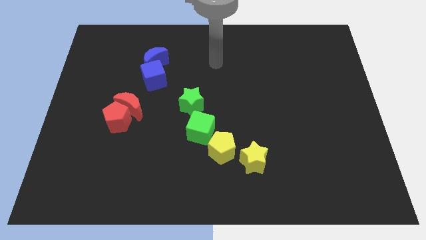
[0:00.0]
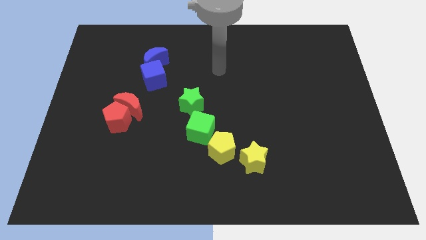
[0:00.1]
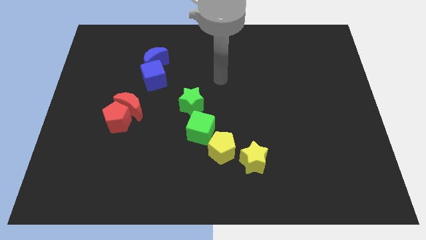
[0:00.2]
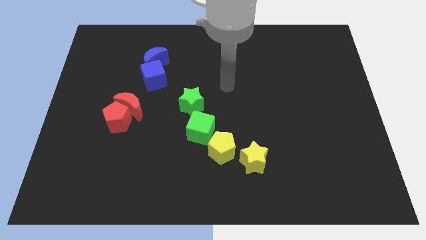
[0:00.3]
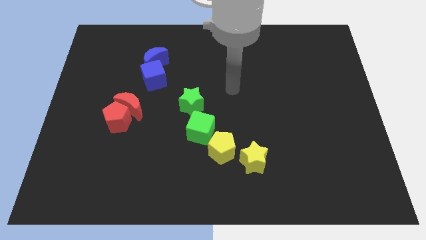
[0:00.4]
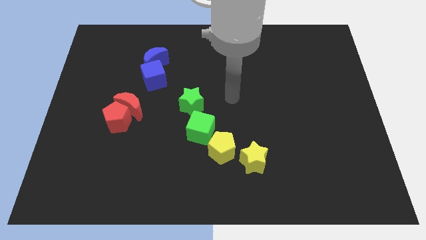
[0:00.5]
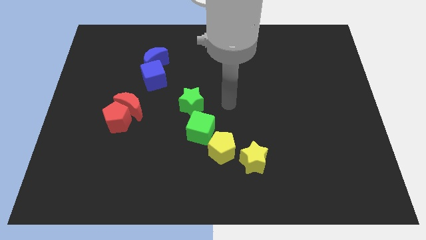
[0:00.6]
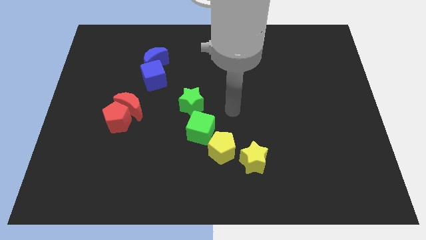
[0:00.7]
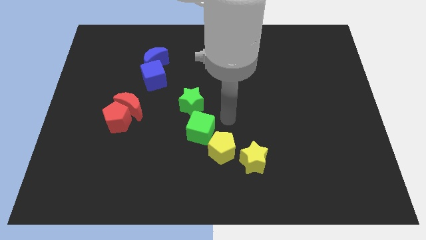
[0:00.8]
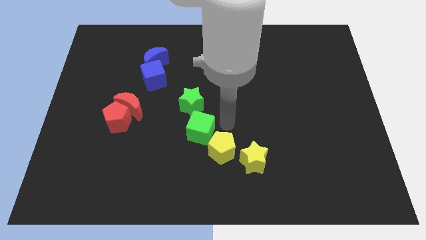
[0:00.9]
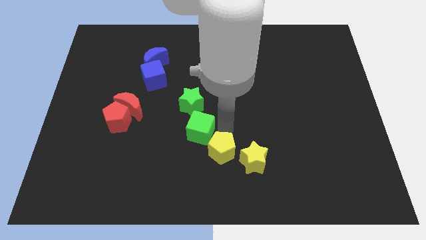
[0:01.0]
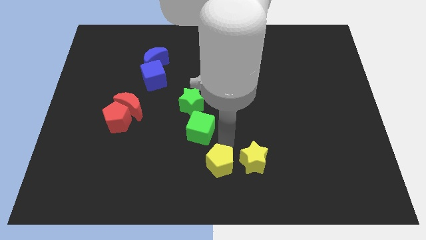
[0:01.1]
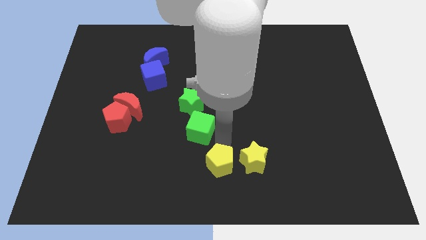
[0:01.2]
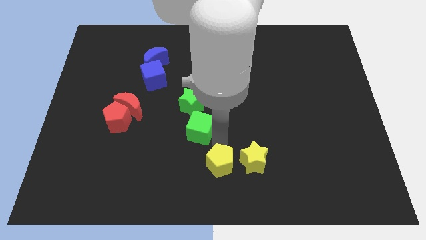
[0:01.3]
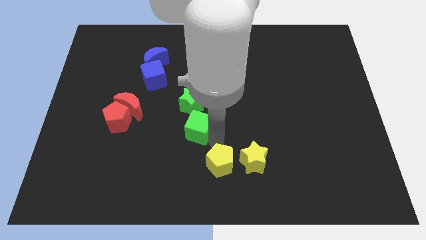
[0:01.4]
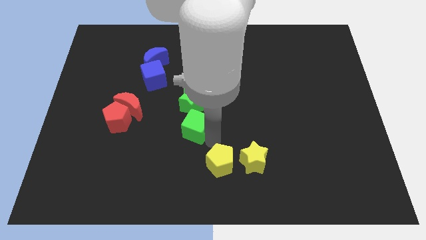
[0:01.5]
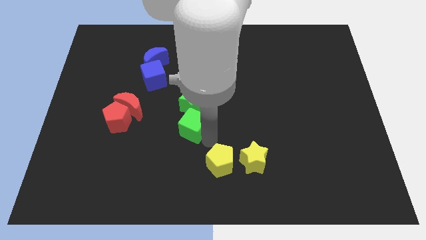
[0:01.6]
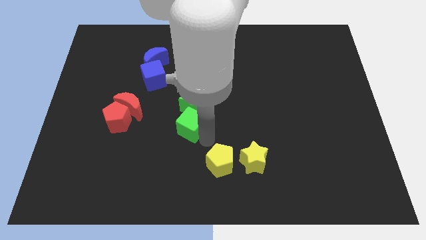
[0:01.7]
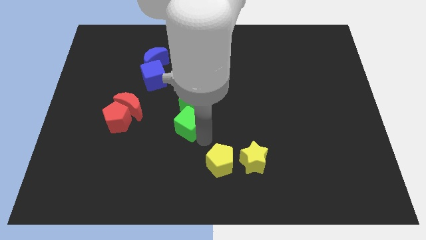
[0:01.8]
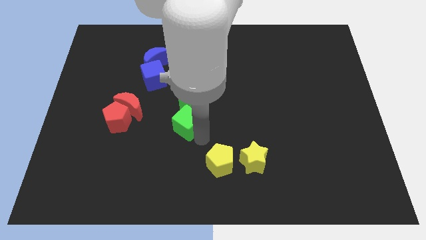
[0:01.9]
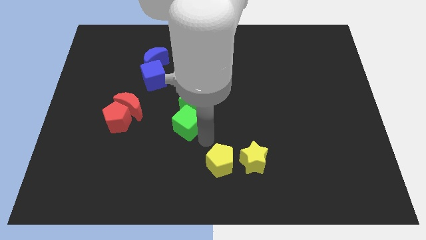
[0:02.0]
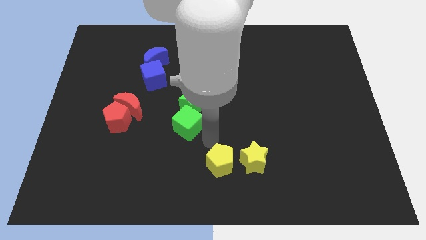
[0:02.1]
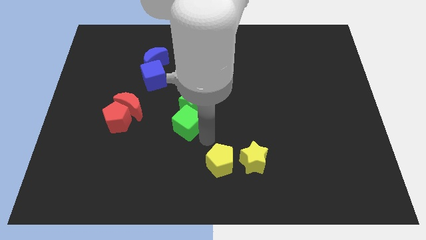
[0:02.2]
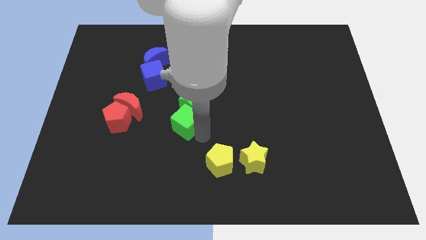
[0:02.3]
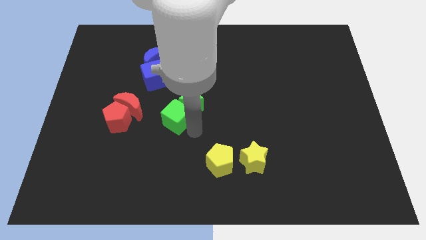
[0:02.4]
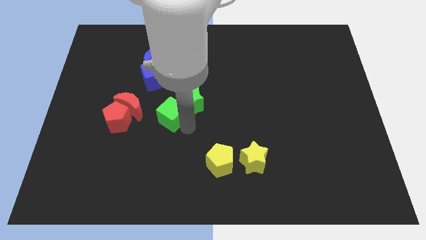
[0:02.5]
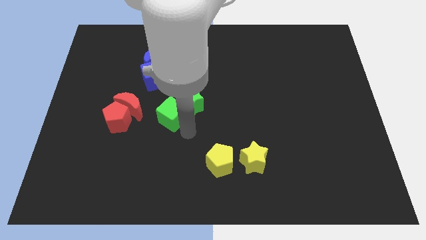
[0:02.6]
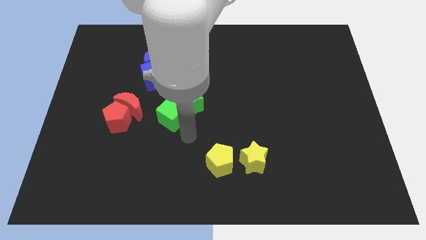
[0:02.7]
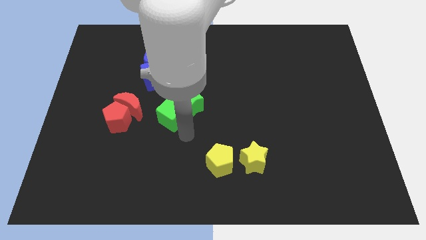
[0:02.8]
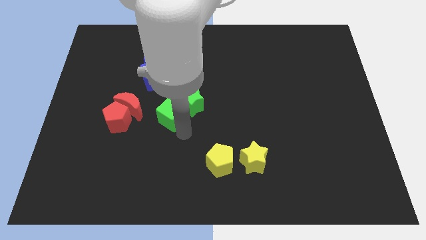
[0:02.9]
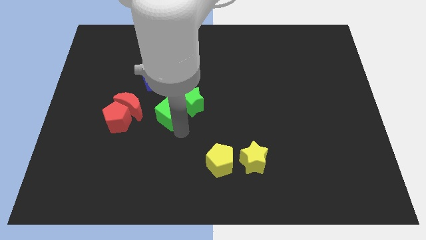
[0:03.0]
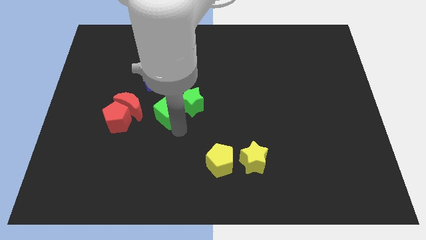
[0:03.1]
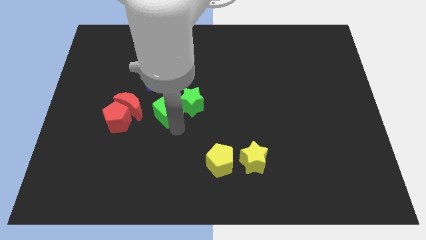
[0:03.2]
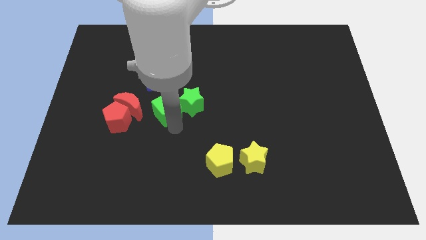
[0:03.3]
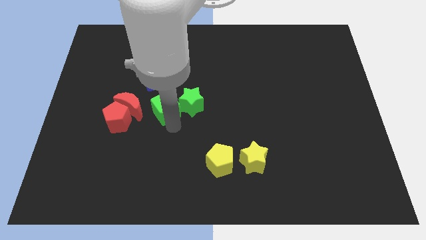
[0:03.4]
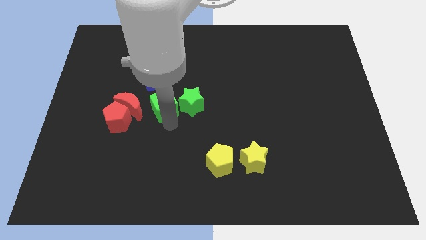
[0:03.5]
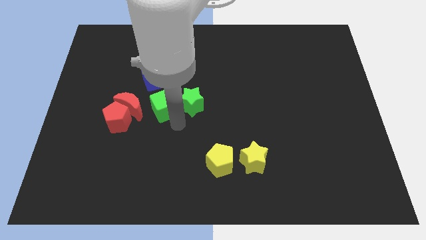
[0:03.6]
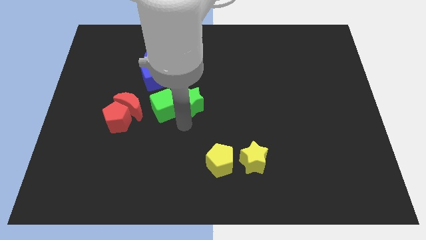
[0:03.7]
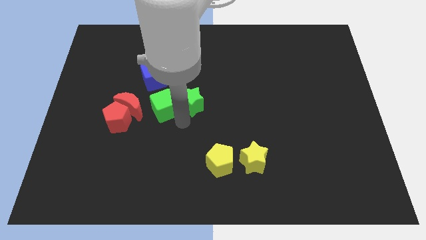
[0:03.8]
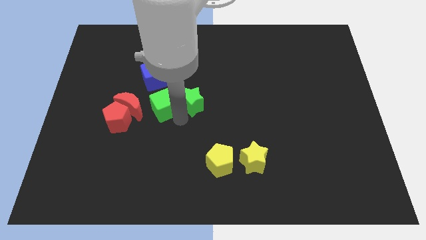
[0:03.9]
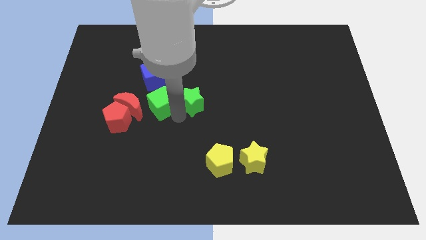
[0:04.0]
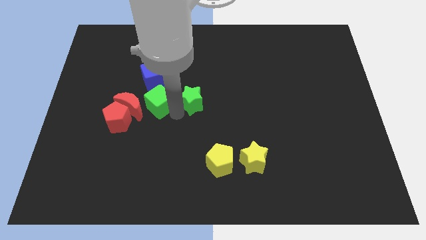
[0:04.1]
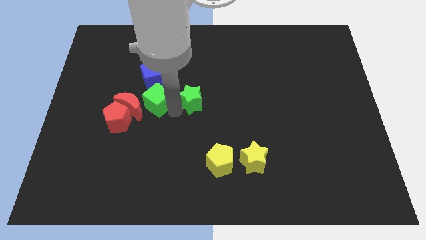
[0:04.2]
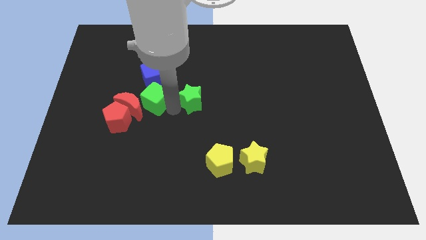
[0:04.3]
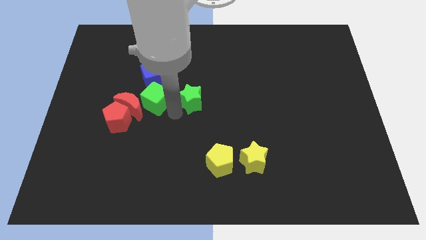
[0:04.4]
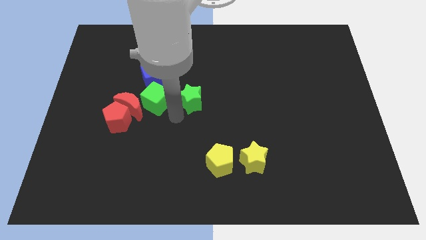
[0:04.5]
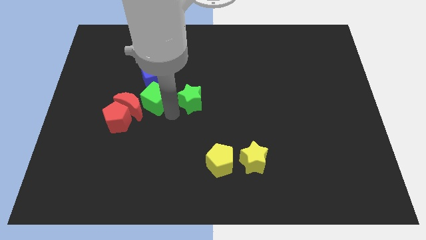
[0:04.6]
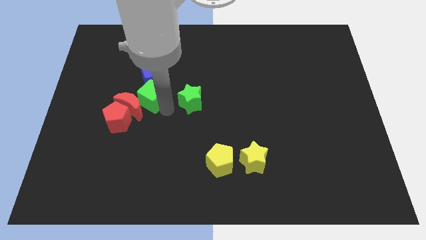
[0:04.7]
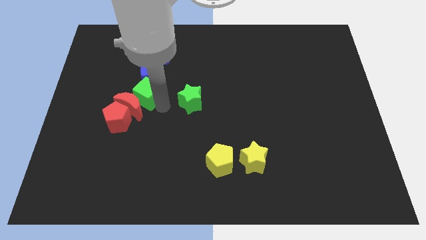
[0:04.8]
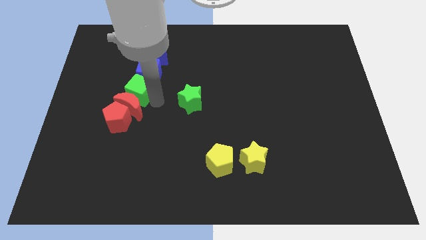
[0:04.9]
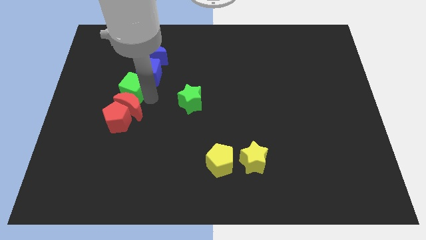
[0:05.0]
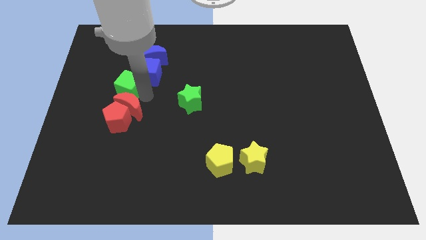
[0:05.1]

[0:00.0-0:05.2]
slide the green cube up and left

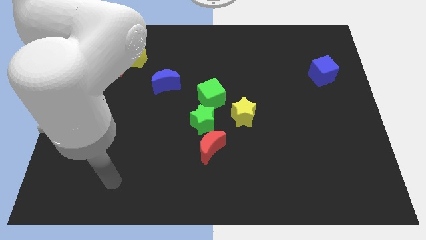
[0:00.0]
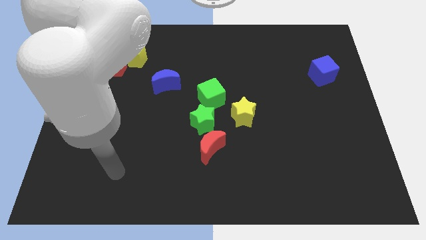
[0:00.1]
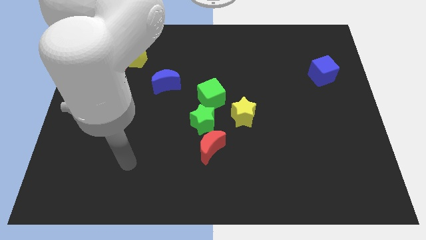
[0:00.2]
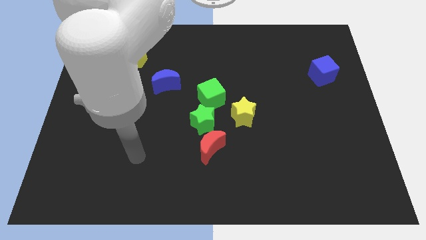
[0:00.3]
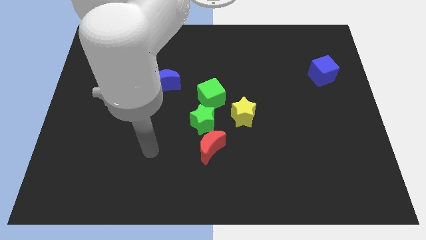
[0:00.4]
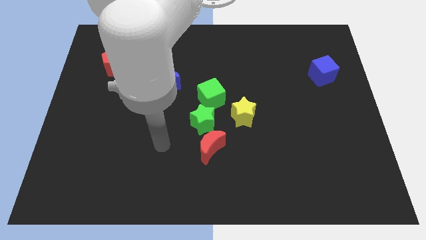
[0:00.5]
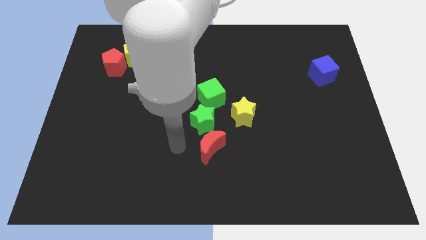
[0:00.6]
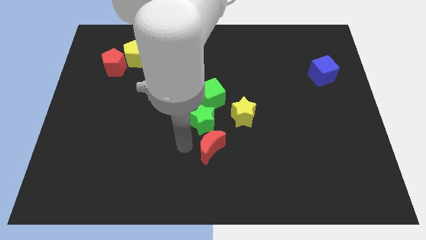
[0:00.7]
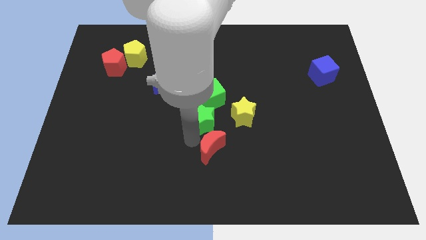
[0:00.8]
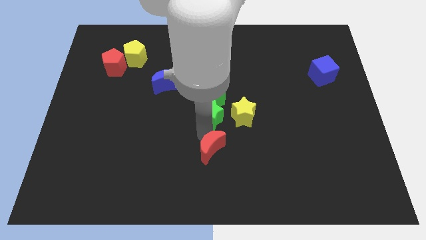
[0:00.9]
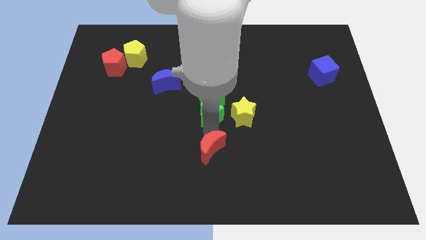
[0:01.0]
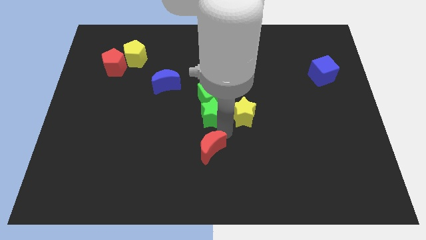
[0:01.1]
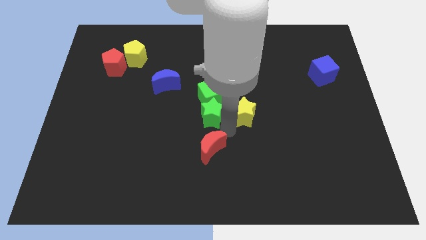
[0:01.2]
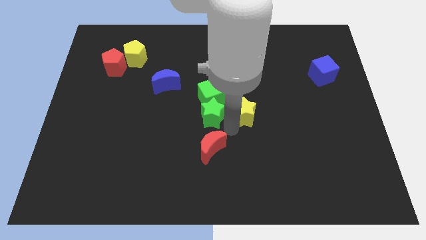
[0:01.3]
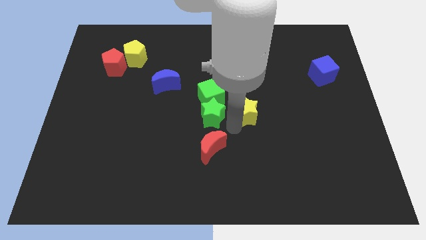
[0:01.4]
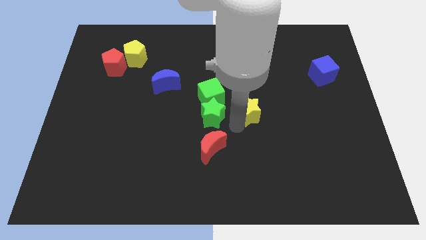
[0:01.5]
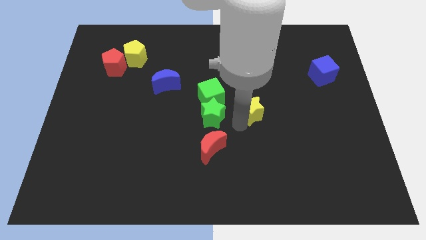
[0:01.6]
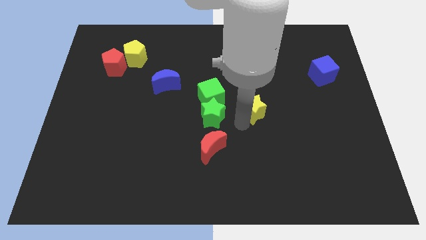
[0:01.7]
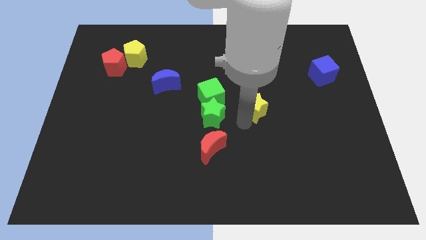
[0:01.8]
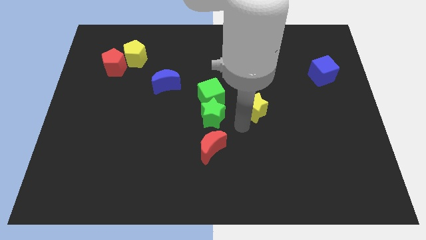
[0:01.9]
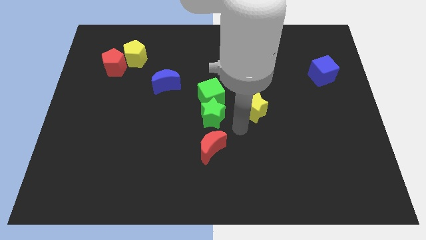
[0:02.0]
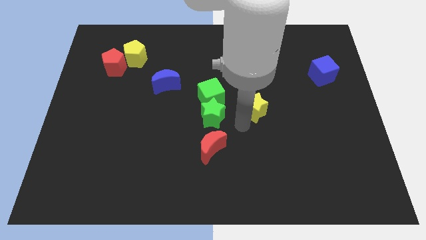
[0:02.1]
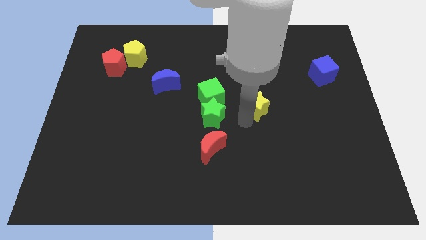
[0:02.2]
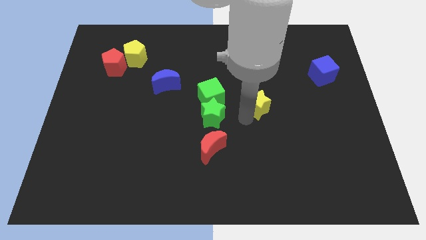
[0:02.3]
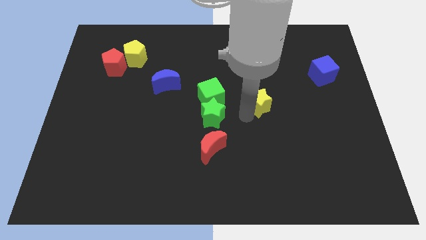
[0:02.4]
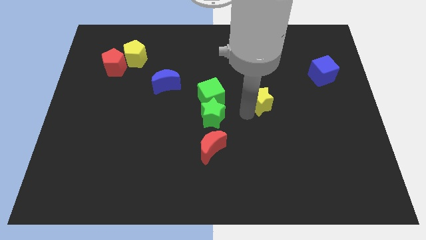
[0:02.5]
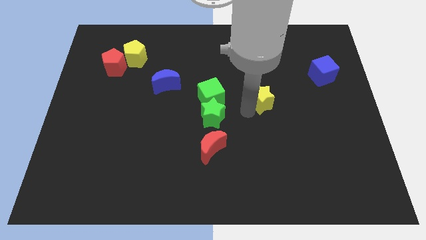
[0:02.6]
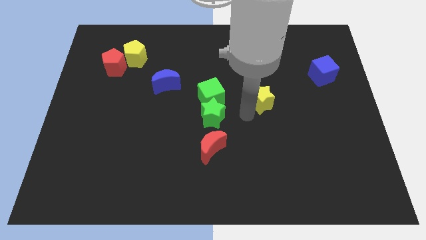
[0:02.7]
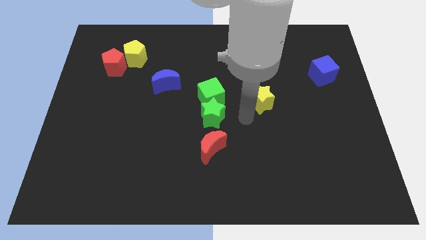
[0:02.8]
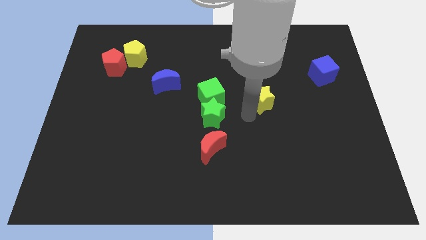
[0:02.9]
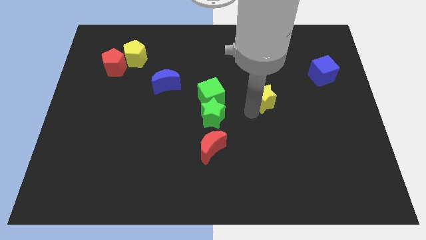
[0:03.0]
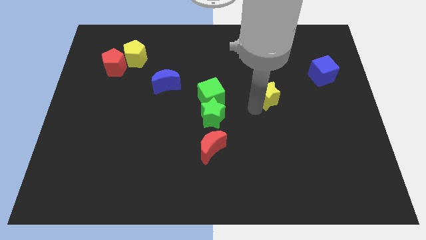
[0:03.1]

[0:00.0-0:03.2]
slightly move the yellow star upwards and then to the right
